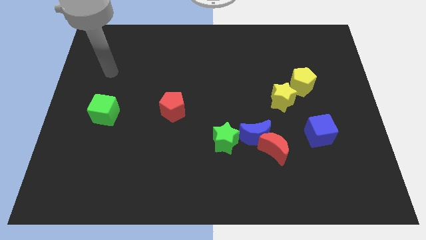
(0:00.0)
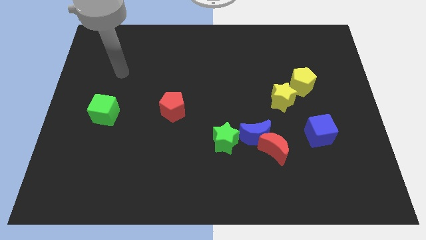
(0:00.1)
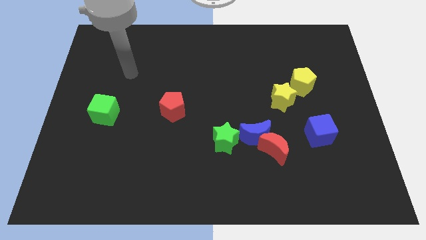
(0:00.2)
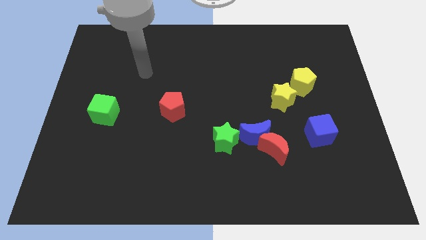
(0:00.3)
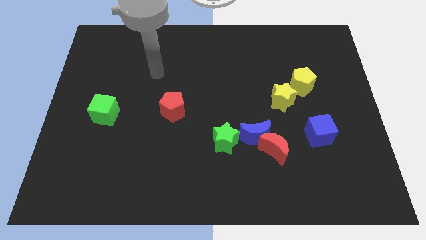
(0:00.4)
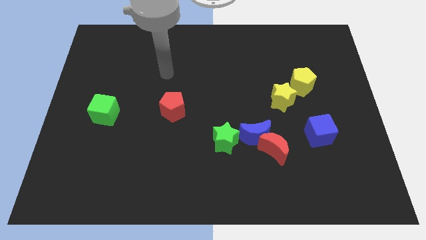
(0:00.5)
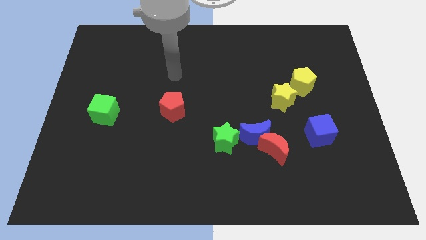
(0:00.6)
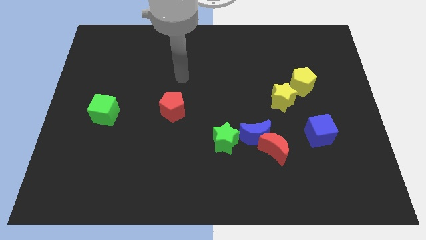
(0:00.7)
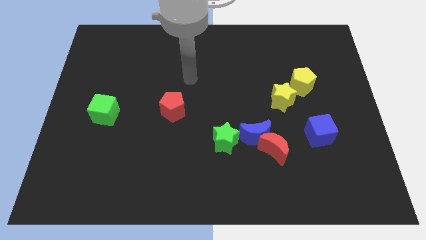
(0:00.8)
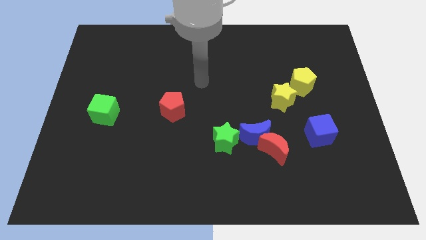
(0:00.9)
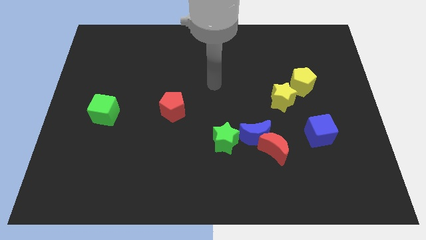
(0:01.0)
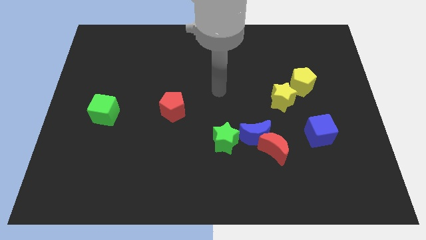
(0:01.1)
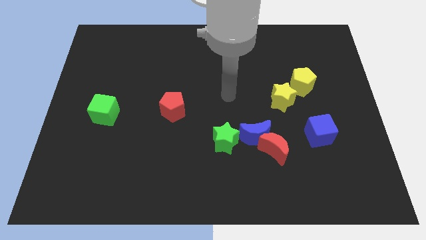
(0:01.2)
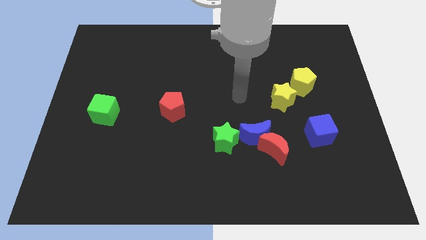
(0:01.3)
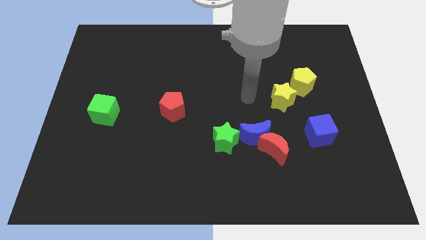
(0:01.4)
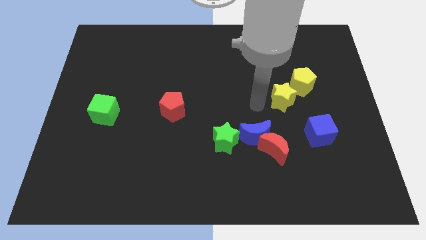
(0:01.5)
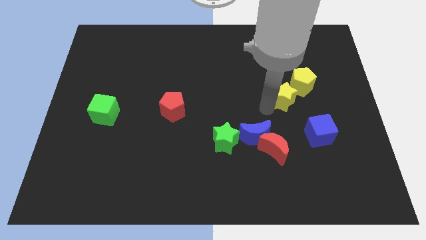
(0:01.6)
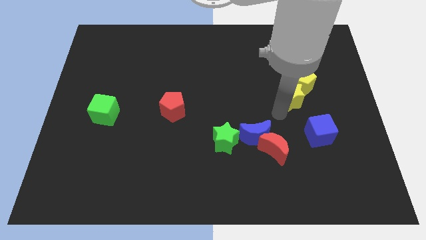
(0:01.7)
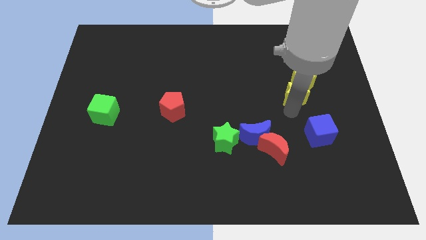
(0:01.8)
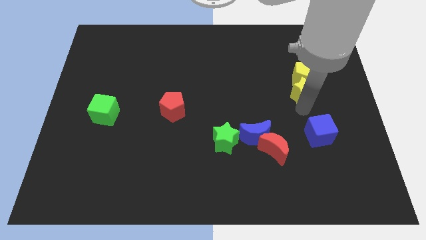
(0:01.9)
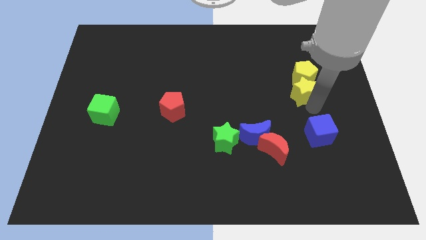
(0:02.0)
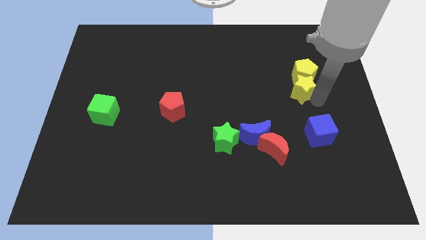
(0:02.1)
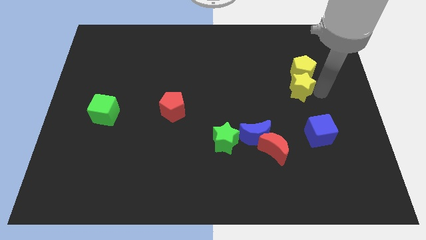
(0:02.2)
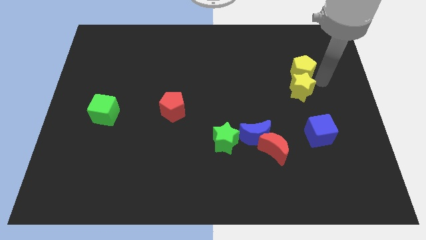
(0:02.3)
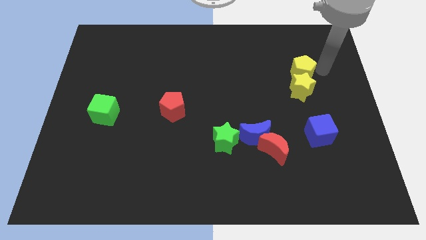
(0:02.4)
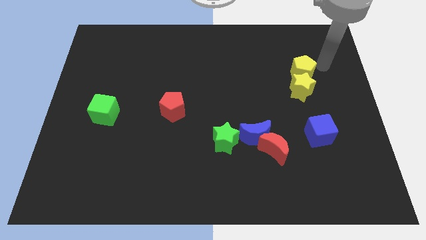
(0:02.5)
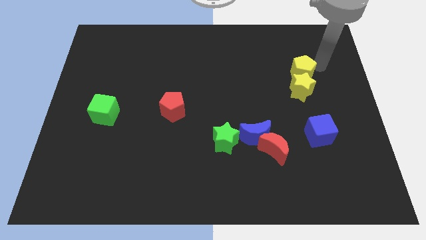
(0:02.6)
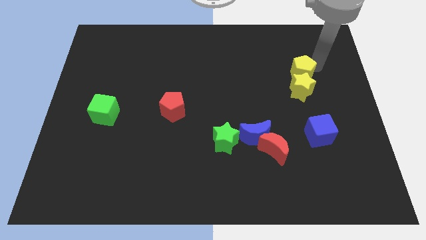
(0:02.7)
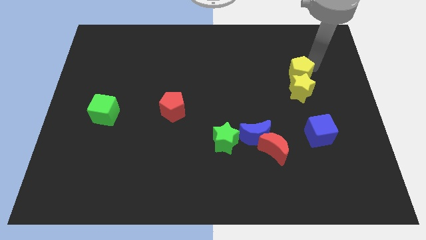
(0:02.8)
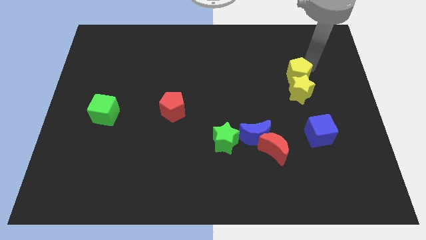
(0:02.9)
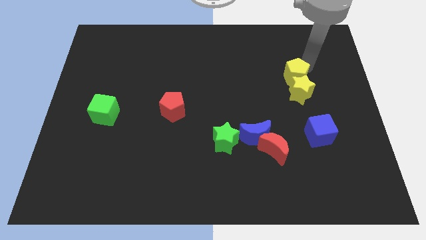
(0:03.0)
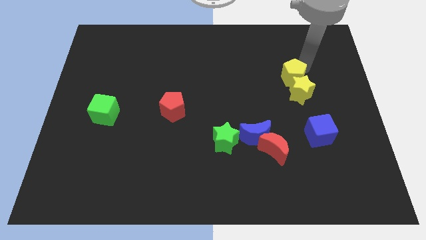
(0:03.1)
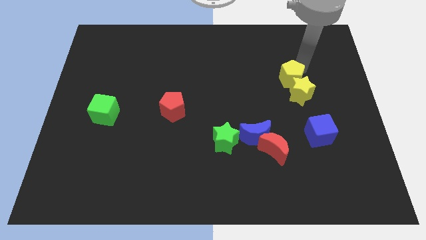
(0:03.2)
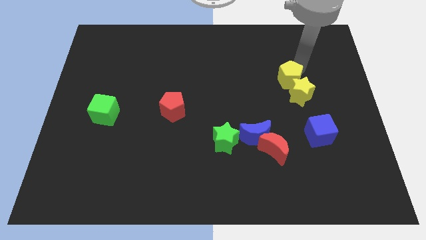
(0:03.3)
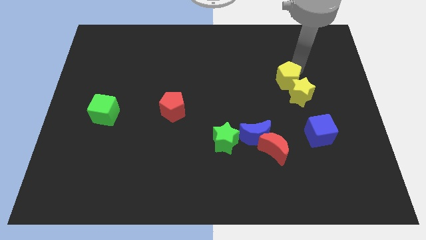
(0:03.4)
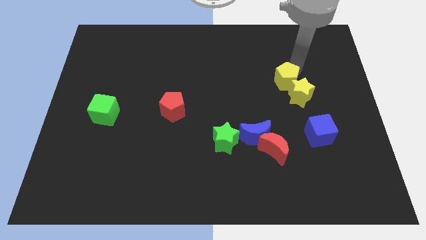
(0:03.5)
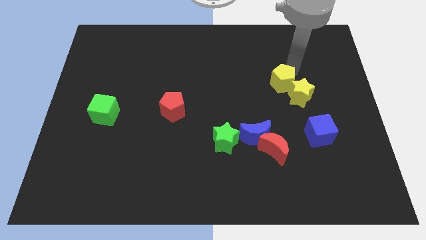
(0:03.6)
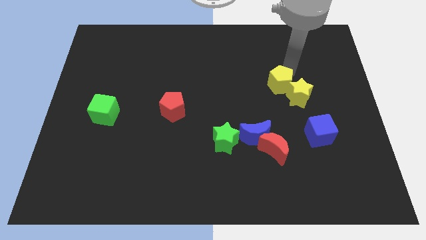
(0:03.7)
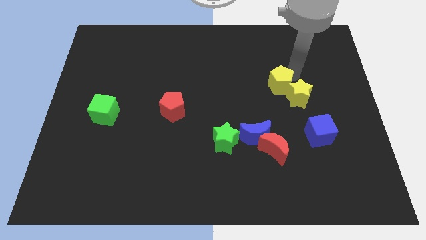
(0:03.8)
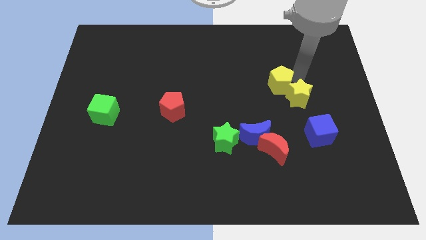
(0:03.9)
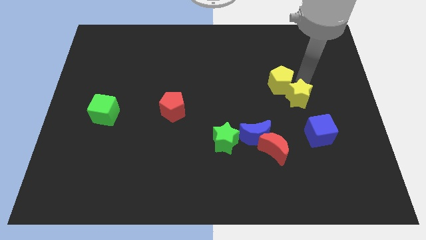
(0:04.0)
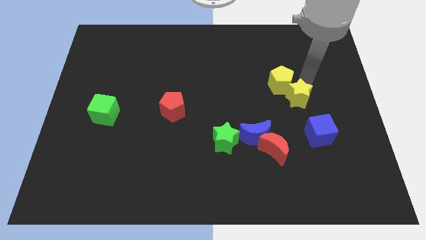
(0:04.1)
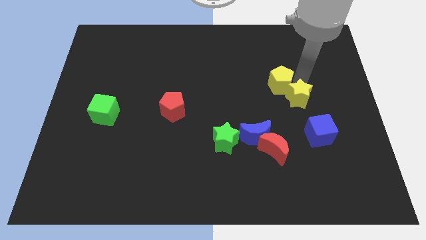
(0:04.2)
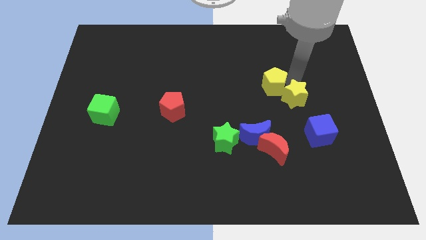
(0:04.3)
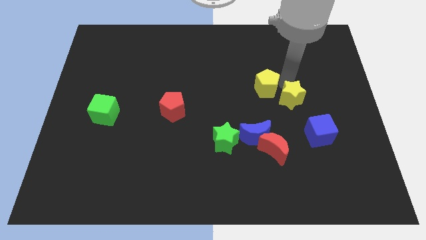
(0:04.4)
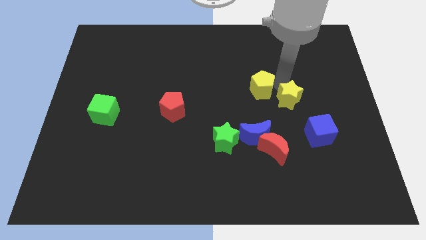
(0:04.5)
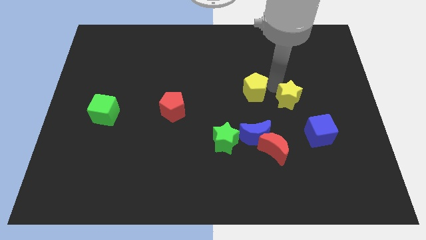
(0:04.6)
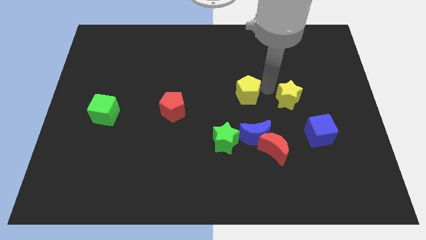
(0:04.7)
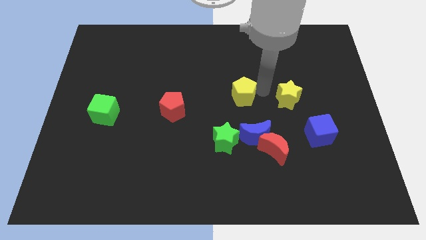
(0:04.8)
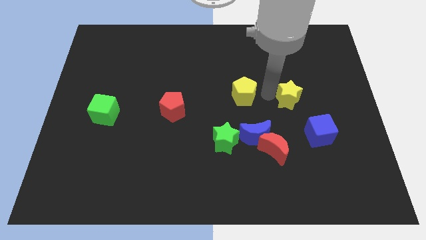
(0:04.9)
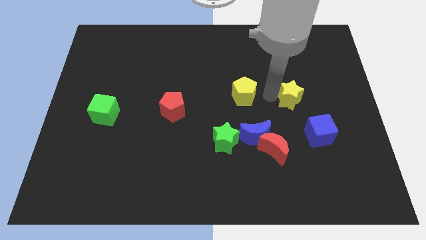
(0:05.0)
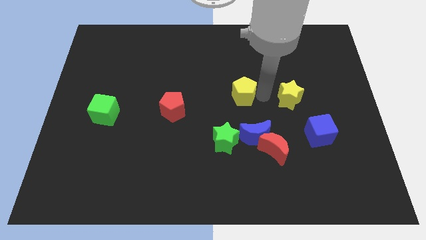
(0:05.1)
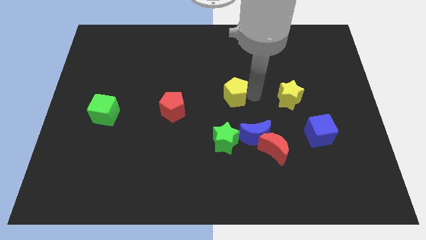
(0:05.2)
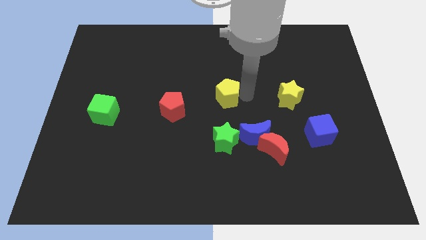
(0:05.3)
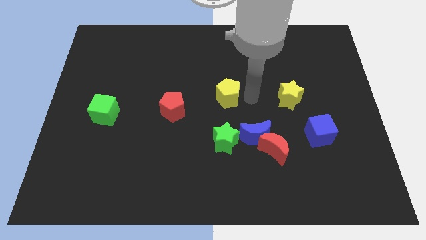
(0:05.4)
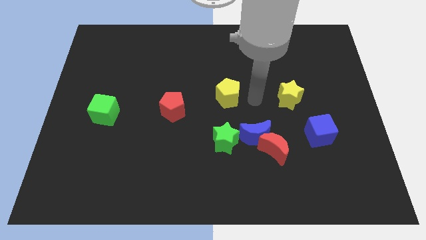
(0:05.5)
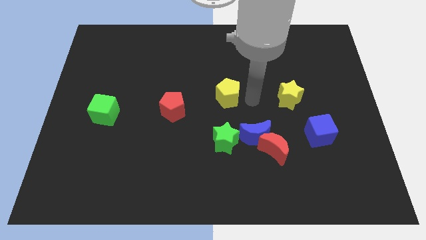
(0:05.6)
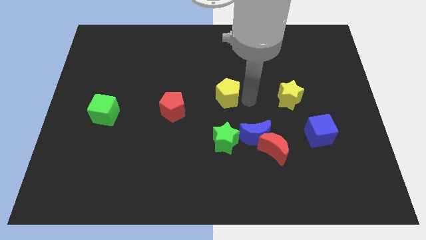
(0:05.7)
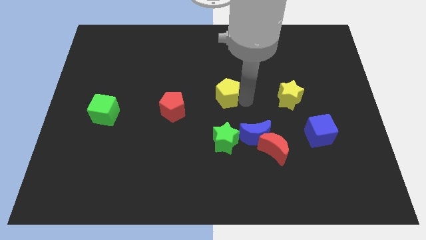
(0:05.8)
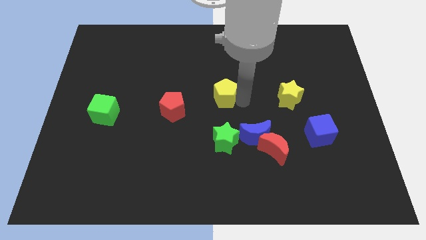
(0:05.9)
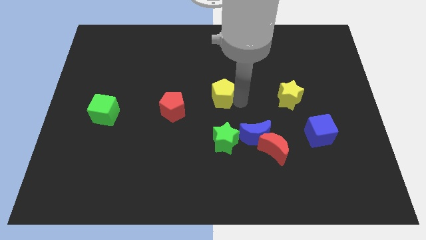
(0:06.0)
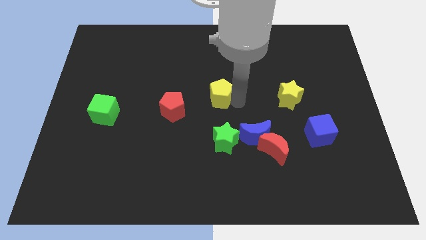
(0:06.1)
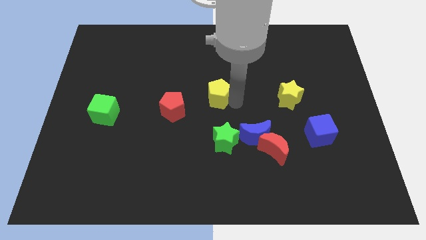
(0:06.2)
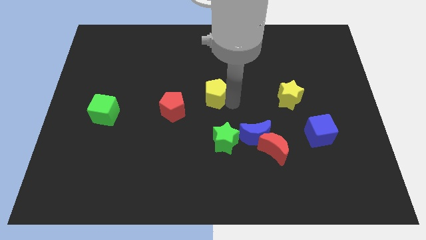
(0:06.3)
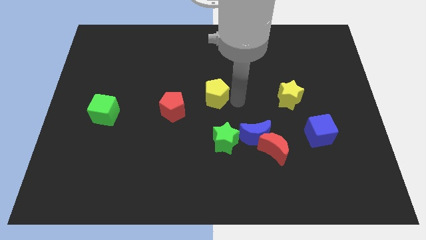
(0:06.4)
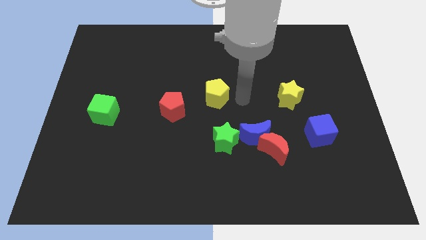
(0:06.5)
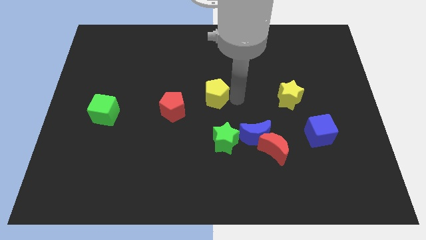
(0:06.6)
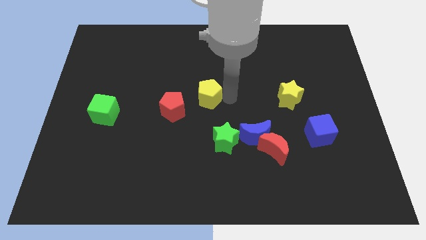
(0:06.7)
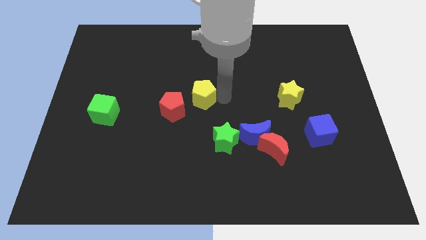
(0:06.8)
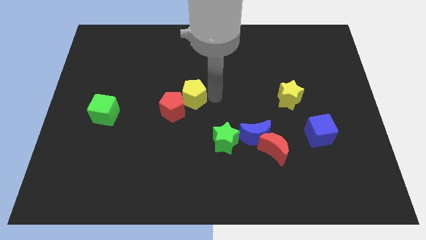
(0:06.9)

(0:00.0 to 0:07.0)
push the yellow pentagon close to the red pentagon
